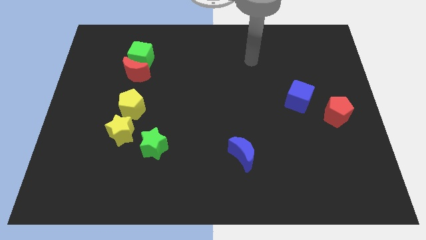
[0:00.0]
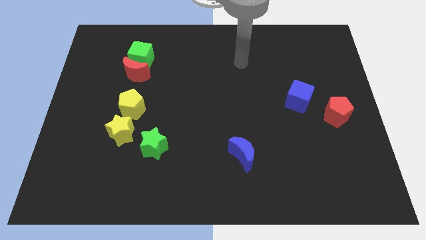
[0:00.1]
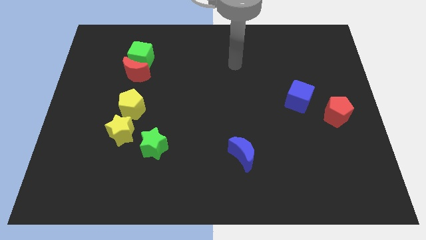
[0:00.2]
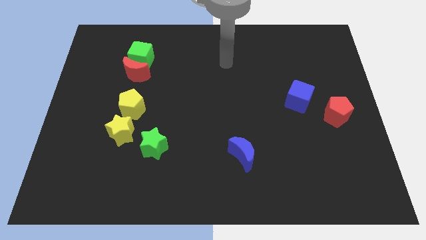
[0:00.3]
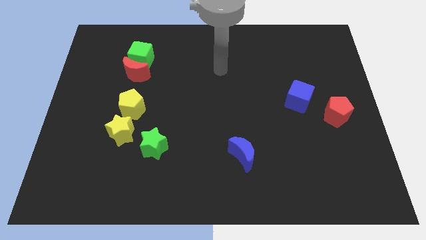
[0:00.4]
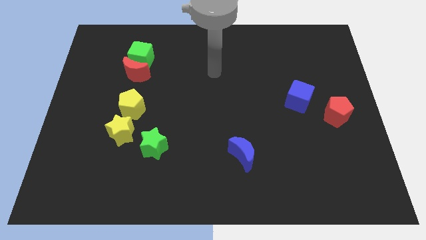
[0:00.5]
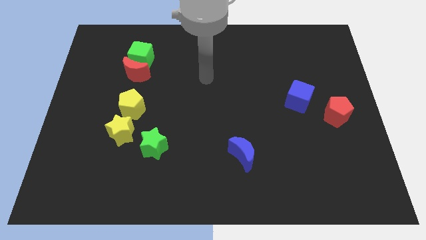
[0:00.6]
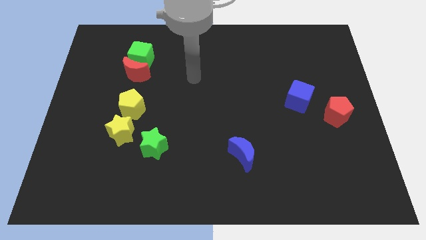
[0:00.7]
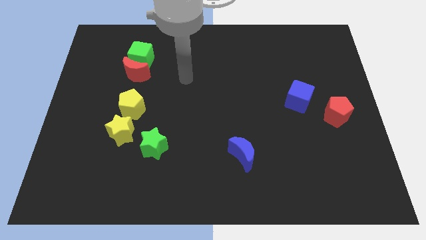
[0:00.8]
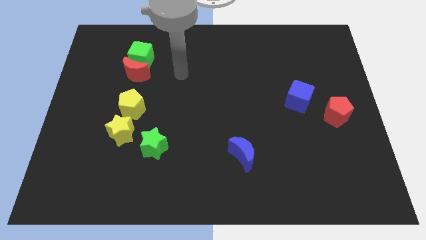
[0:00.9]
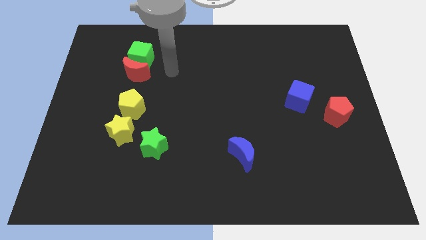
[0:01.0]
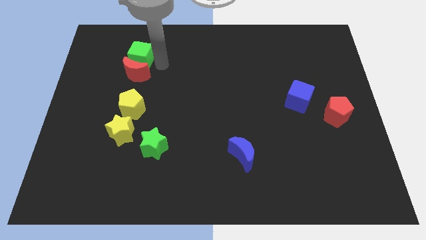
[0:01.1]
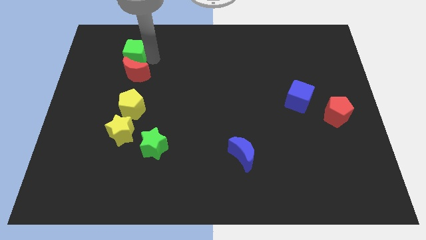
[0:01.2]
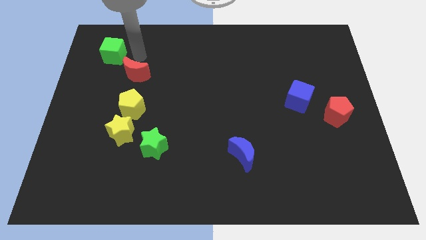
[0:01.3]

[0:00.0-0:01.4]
move the red moon away from the green cube

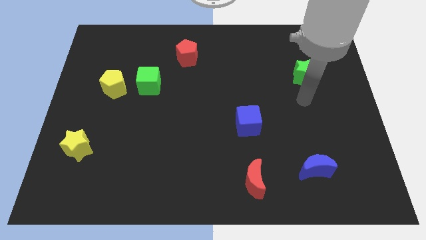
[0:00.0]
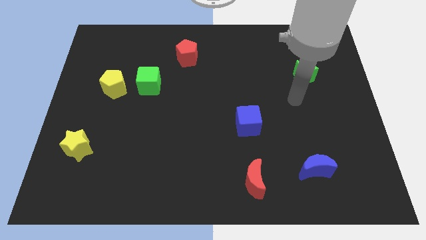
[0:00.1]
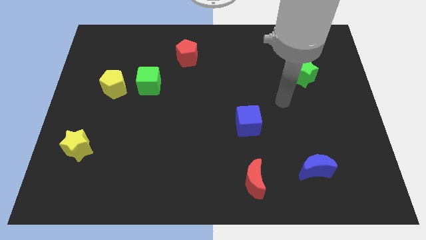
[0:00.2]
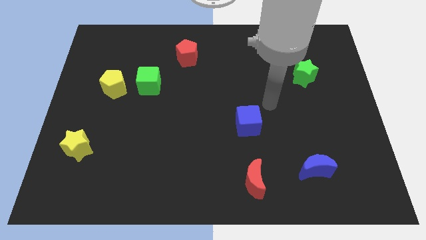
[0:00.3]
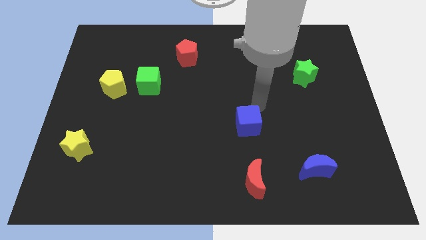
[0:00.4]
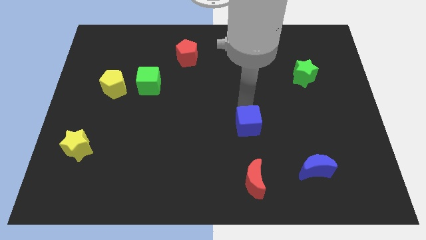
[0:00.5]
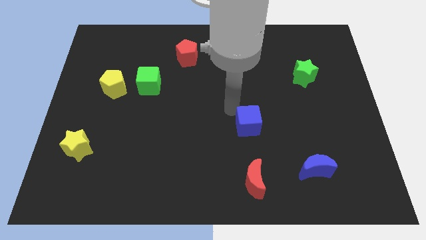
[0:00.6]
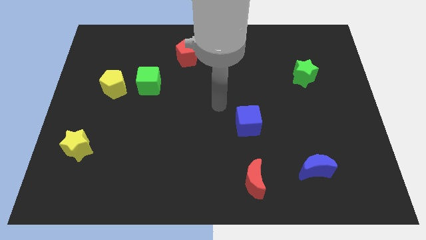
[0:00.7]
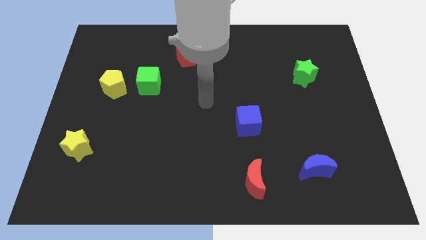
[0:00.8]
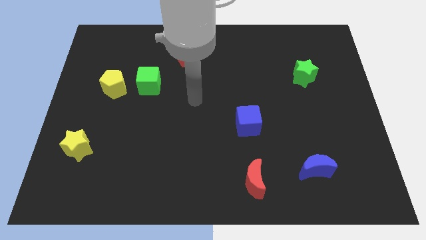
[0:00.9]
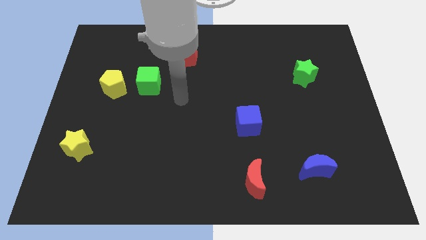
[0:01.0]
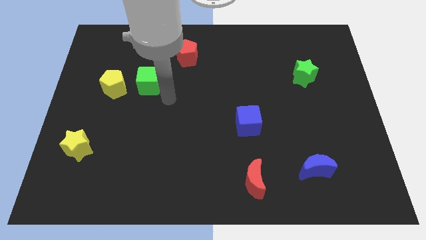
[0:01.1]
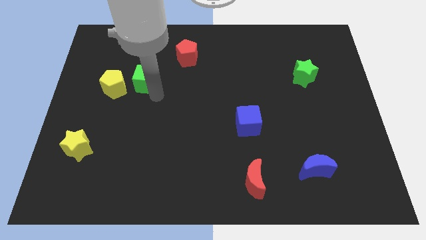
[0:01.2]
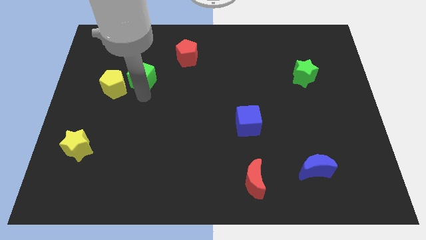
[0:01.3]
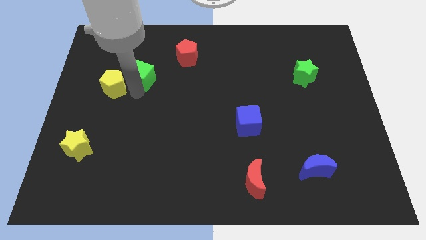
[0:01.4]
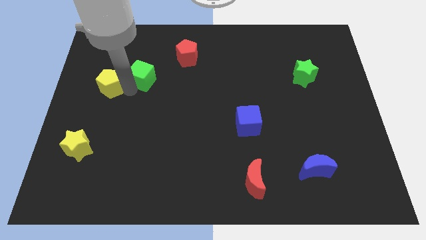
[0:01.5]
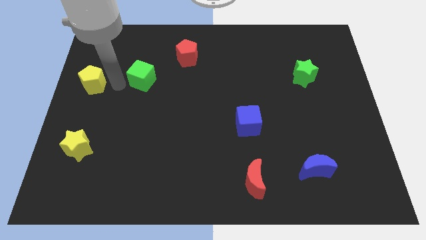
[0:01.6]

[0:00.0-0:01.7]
pull the green cube apart from the yellow pentagon

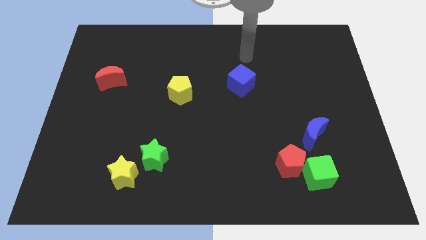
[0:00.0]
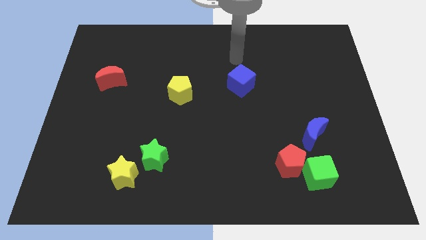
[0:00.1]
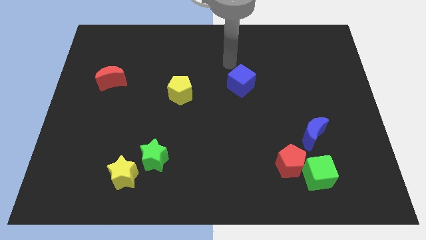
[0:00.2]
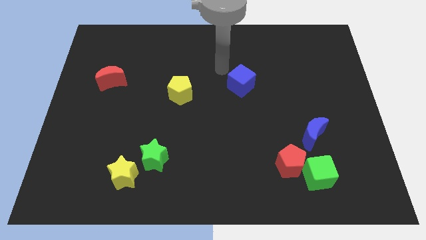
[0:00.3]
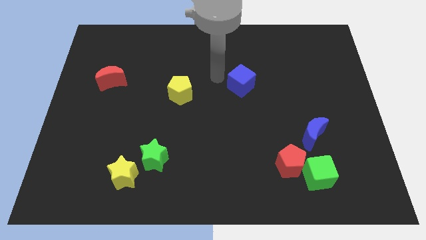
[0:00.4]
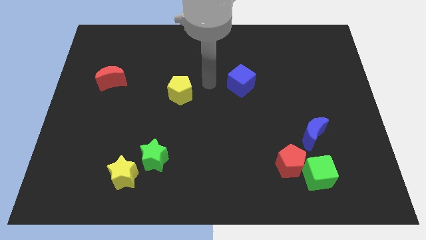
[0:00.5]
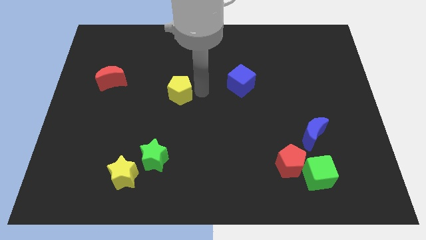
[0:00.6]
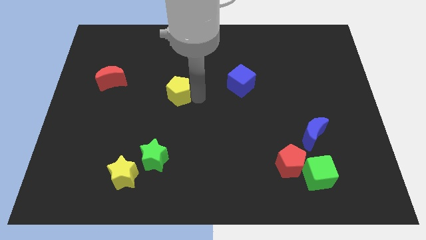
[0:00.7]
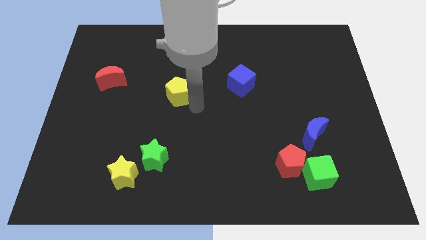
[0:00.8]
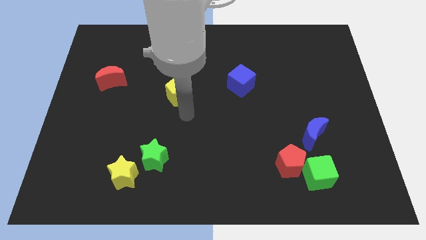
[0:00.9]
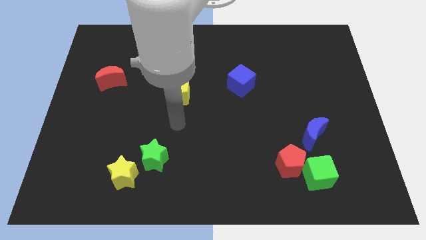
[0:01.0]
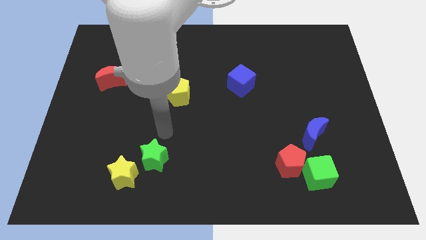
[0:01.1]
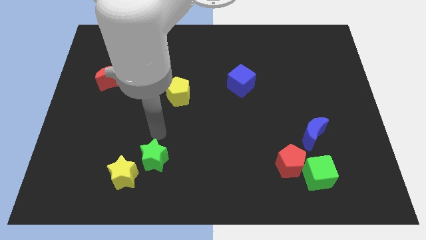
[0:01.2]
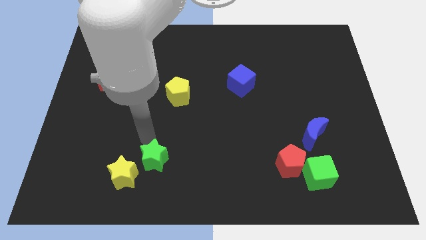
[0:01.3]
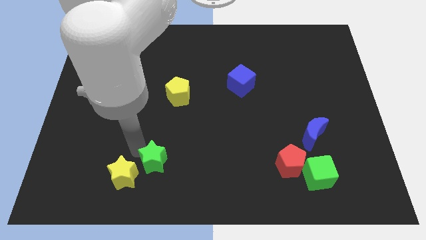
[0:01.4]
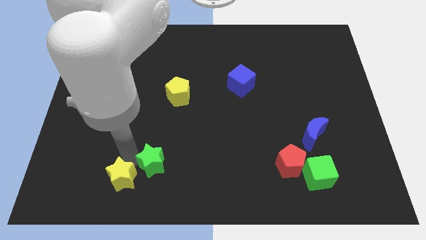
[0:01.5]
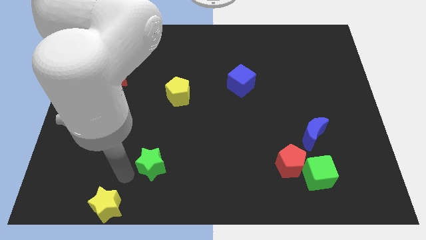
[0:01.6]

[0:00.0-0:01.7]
move the green star away from the yellow star

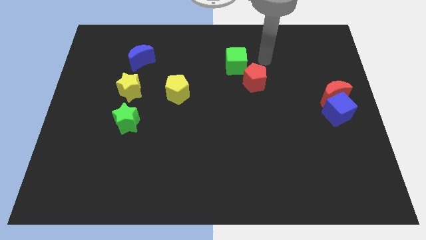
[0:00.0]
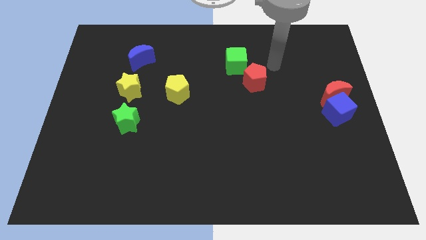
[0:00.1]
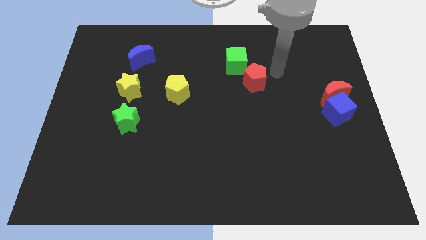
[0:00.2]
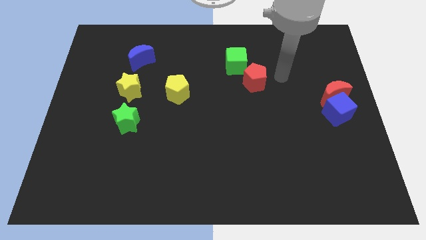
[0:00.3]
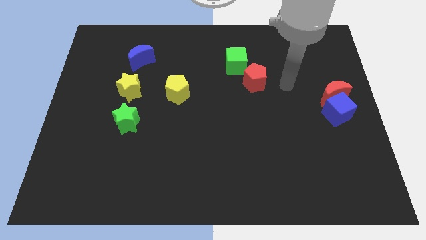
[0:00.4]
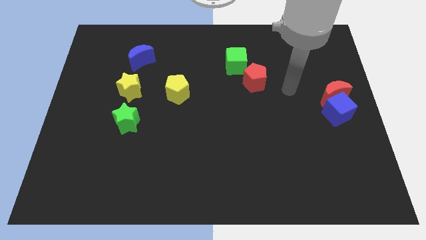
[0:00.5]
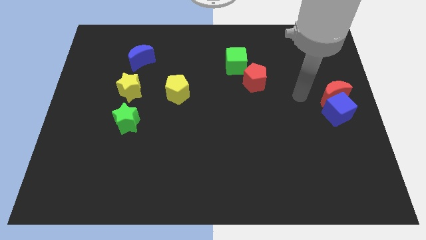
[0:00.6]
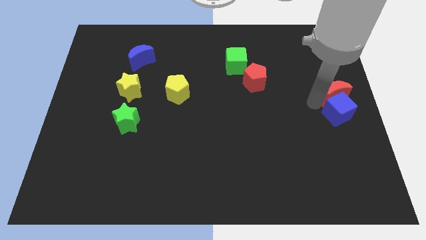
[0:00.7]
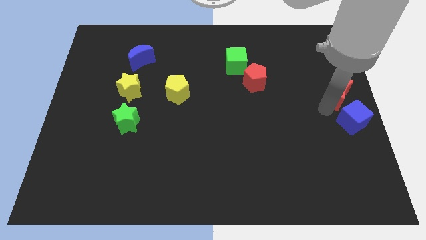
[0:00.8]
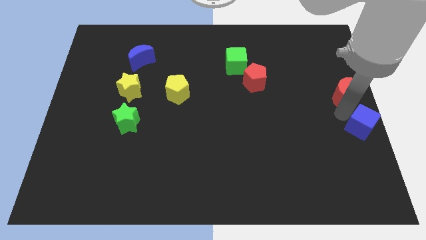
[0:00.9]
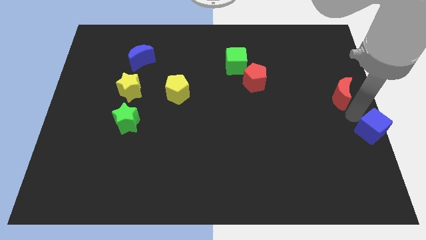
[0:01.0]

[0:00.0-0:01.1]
move the red moon away from the blue cube

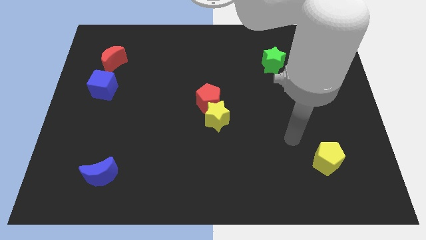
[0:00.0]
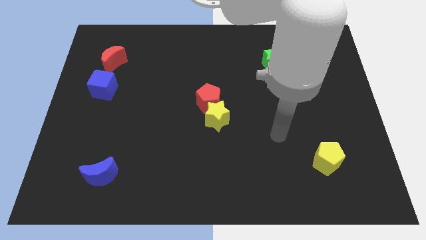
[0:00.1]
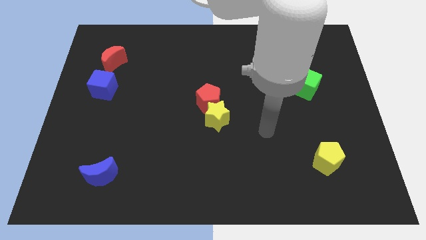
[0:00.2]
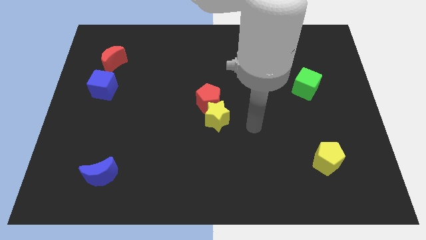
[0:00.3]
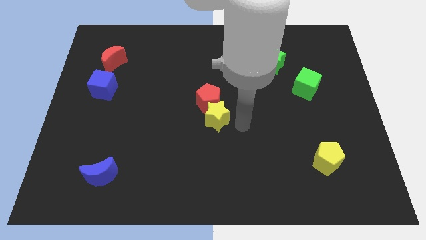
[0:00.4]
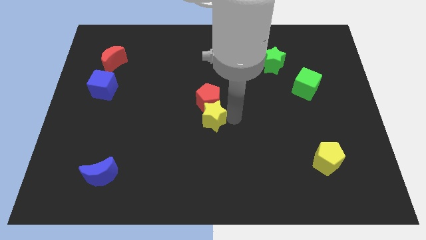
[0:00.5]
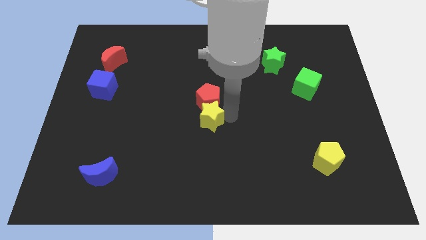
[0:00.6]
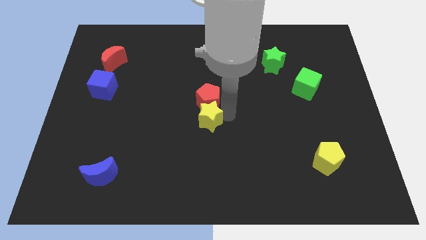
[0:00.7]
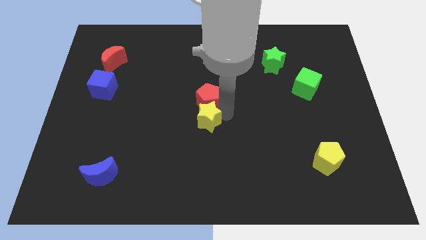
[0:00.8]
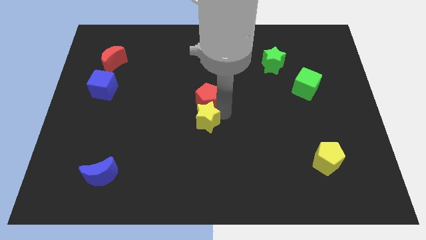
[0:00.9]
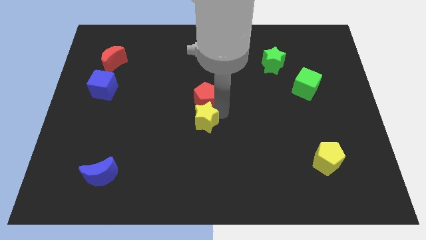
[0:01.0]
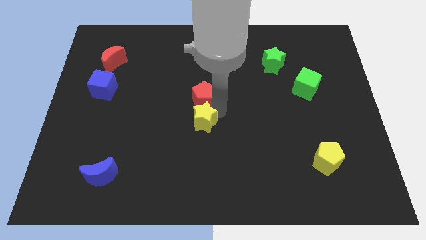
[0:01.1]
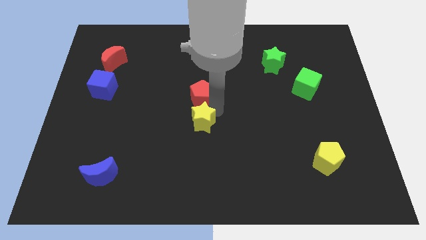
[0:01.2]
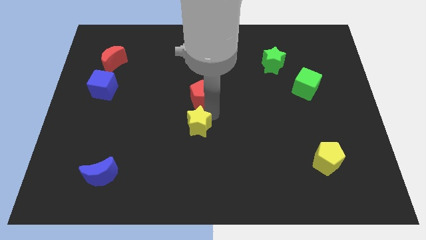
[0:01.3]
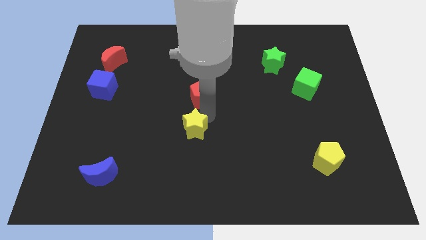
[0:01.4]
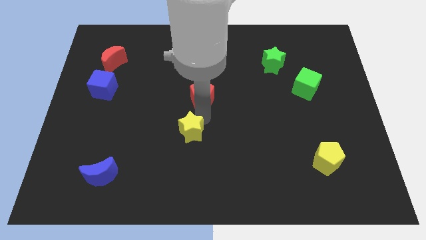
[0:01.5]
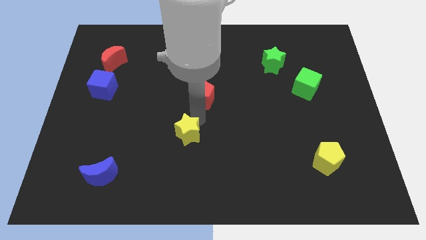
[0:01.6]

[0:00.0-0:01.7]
move the red pentagon away from the yellow star

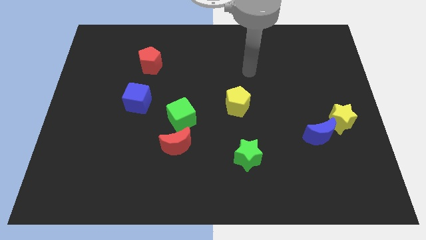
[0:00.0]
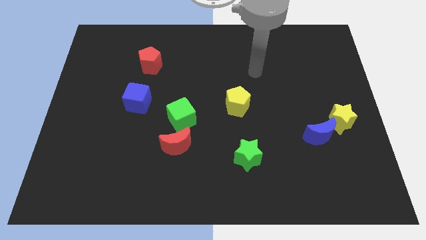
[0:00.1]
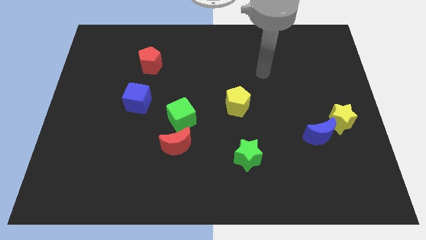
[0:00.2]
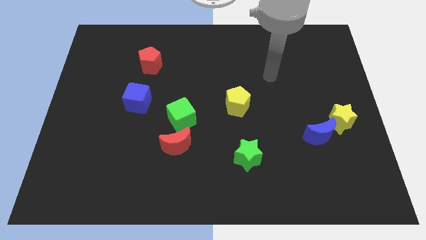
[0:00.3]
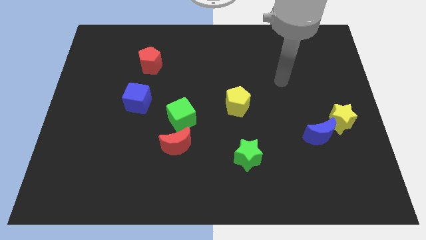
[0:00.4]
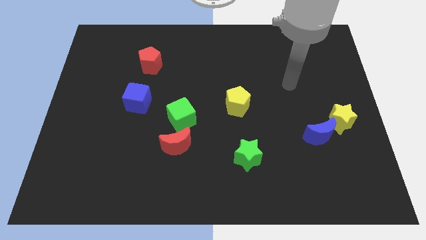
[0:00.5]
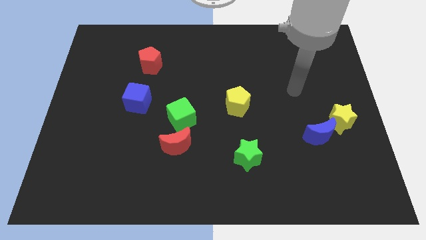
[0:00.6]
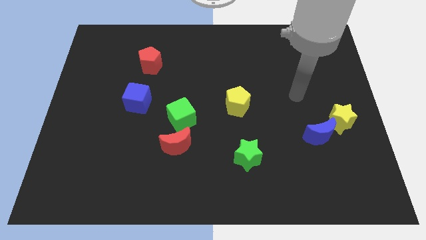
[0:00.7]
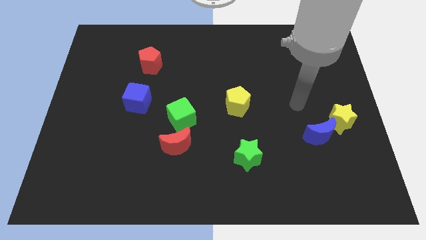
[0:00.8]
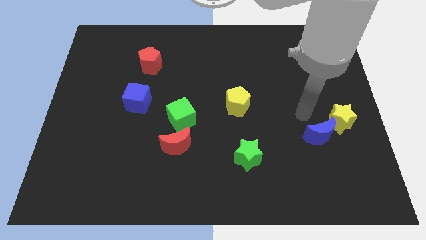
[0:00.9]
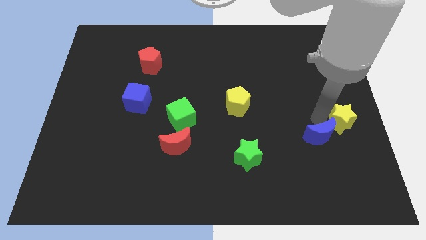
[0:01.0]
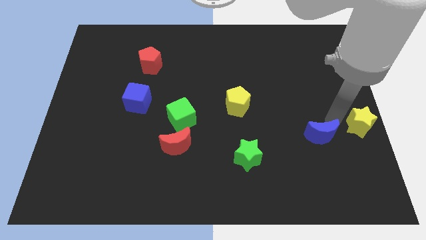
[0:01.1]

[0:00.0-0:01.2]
separate the blue moon from the yellow star

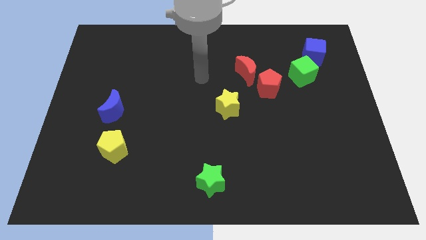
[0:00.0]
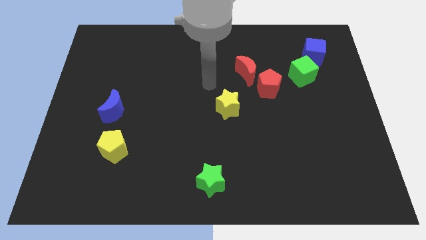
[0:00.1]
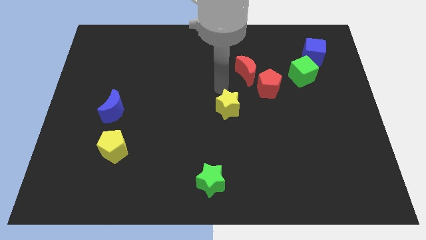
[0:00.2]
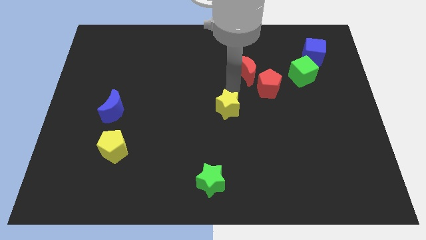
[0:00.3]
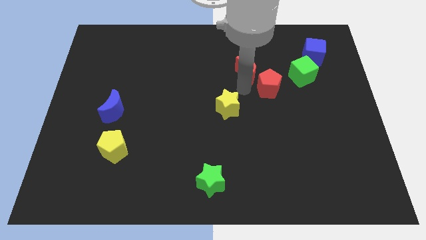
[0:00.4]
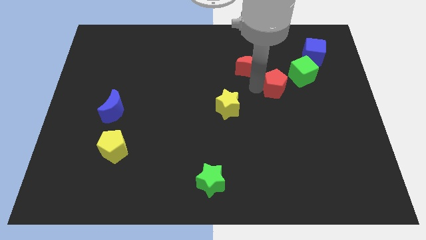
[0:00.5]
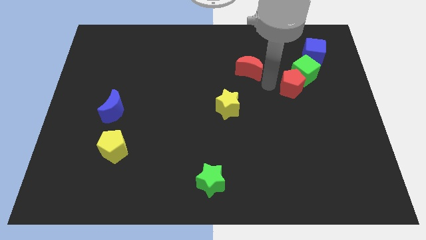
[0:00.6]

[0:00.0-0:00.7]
separate the red moon from the red pentagon
